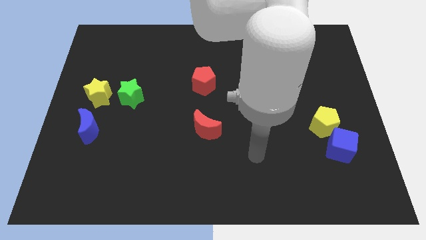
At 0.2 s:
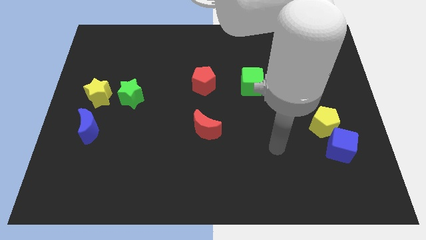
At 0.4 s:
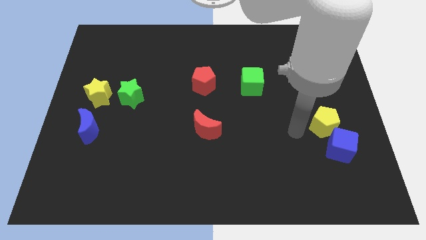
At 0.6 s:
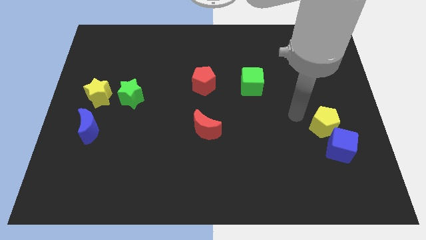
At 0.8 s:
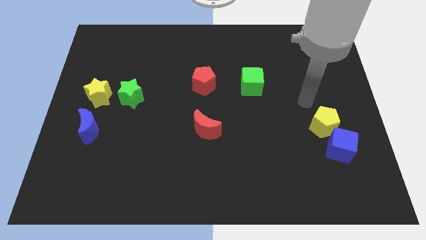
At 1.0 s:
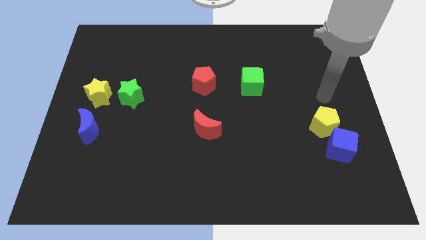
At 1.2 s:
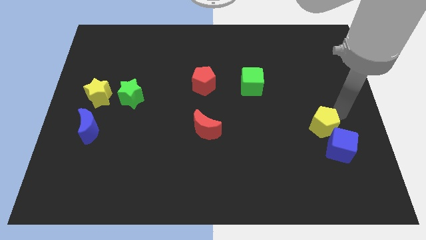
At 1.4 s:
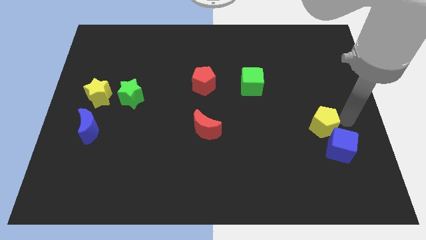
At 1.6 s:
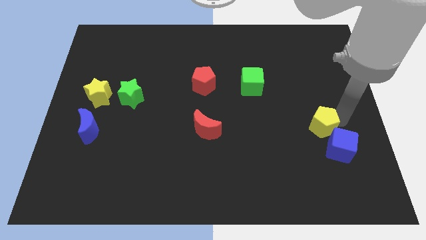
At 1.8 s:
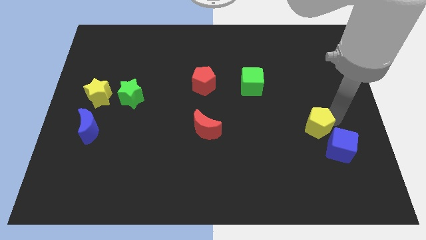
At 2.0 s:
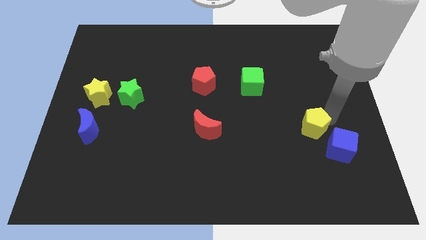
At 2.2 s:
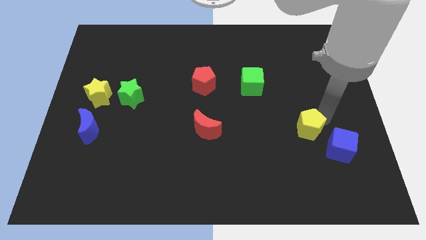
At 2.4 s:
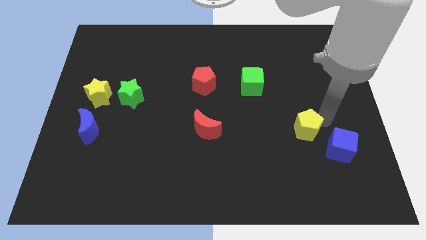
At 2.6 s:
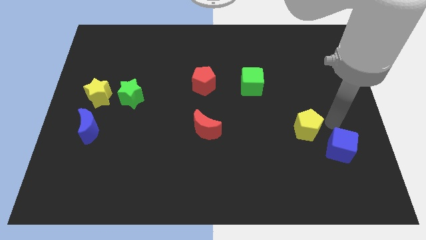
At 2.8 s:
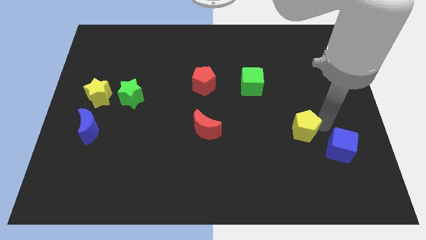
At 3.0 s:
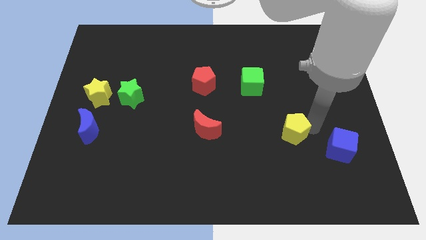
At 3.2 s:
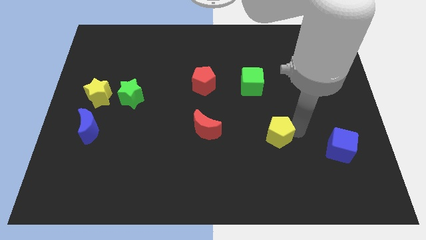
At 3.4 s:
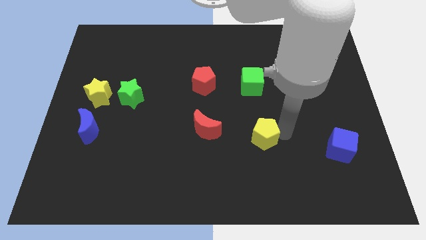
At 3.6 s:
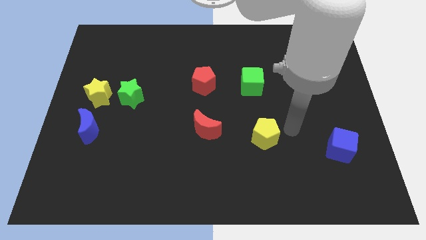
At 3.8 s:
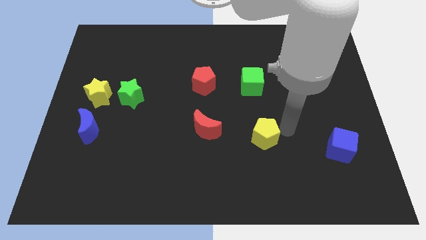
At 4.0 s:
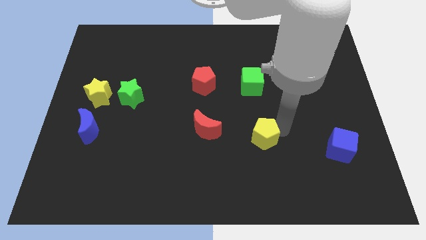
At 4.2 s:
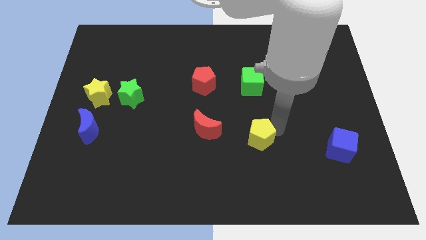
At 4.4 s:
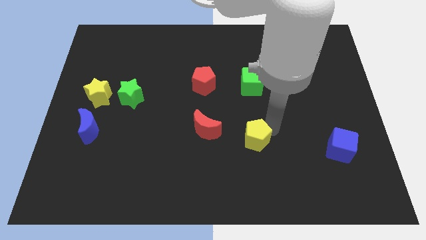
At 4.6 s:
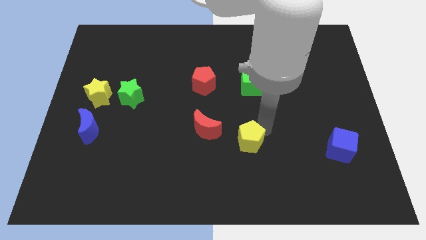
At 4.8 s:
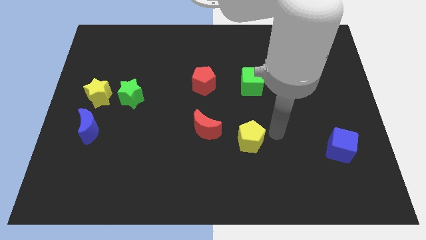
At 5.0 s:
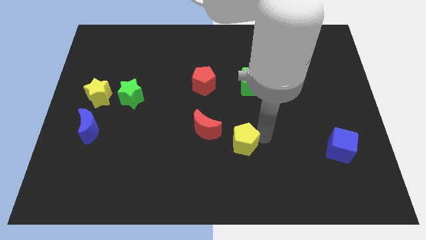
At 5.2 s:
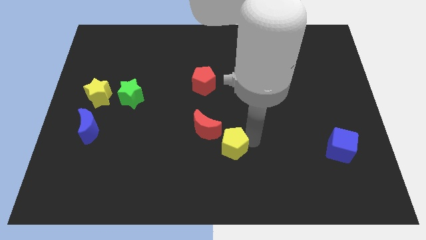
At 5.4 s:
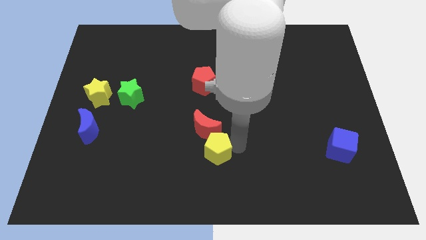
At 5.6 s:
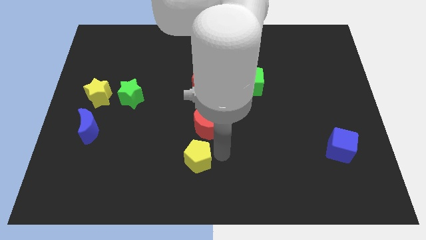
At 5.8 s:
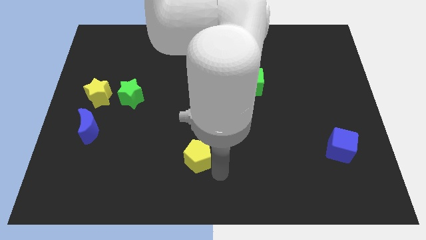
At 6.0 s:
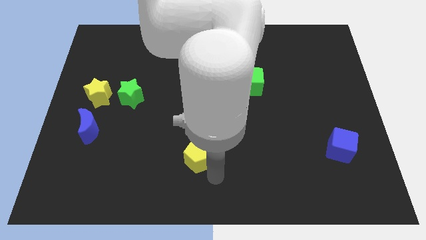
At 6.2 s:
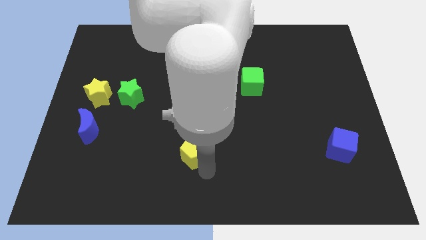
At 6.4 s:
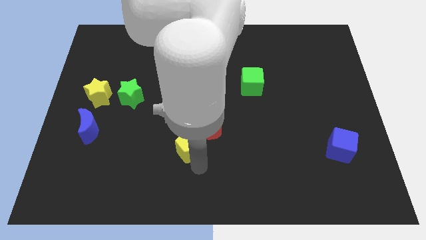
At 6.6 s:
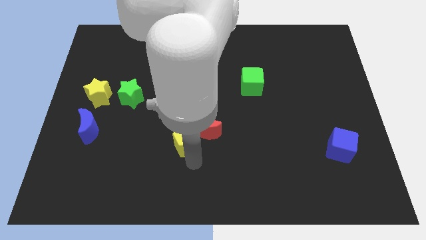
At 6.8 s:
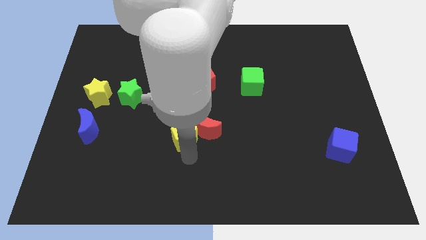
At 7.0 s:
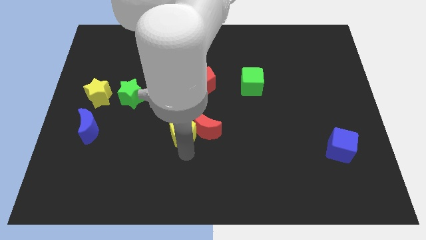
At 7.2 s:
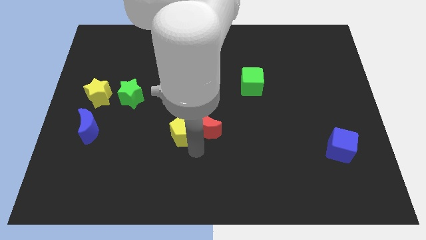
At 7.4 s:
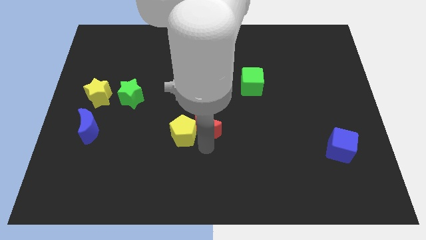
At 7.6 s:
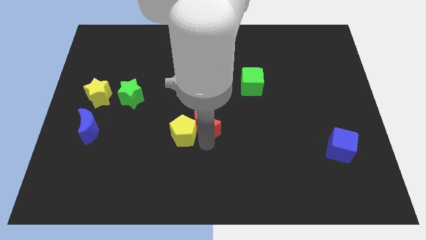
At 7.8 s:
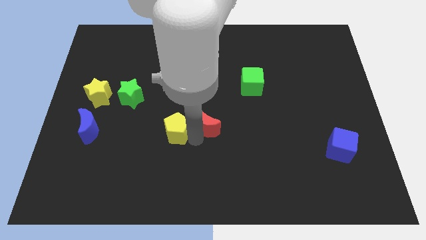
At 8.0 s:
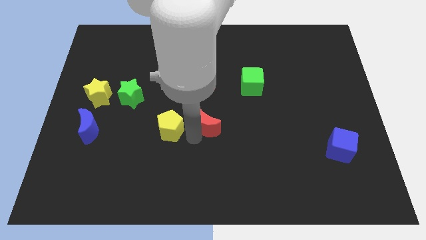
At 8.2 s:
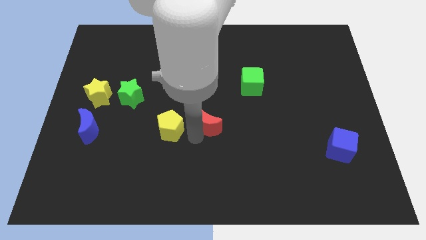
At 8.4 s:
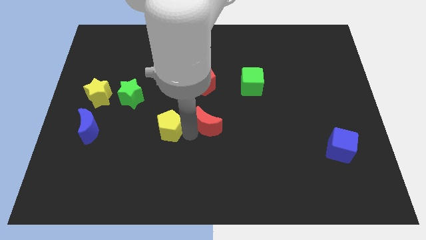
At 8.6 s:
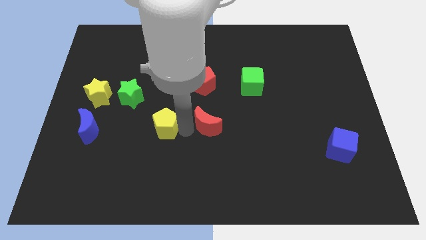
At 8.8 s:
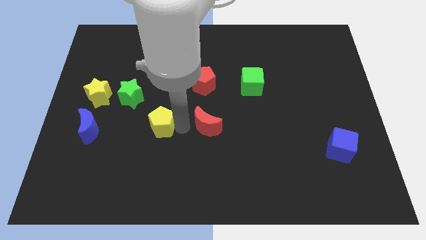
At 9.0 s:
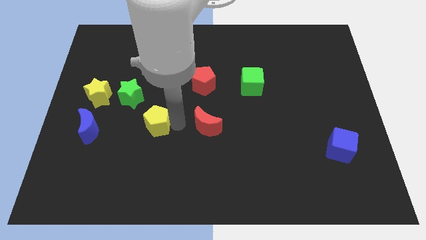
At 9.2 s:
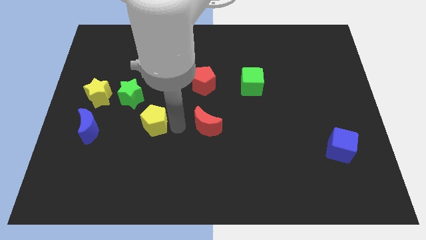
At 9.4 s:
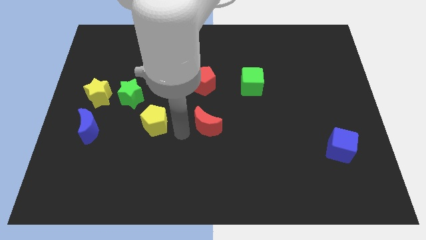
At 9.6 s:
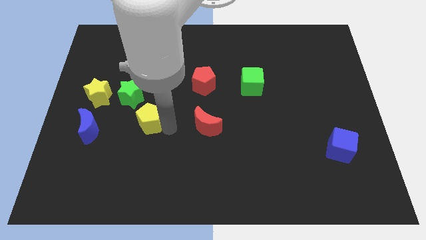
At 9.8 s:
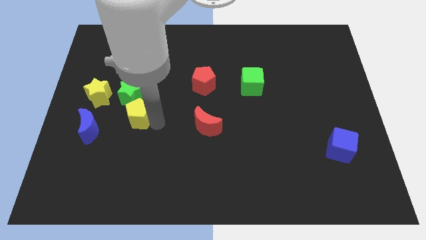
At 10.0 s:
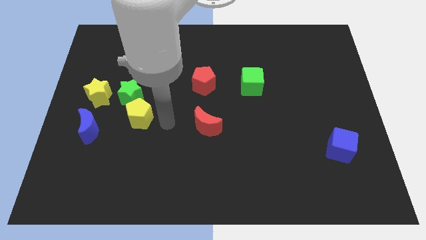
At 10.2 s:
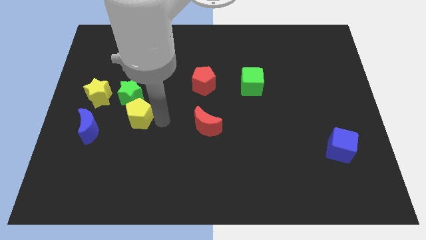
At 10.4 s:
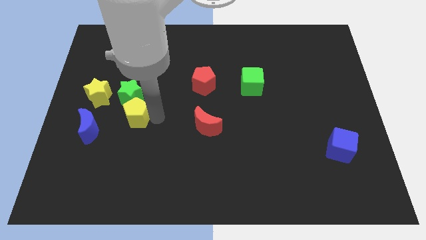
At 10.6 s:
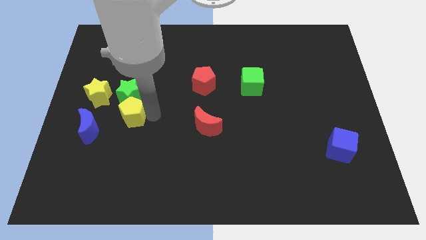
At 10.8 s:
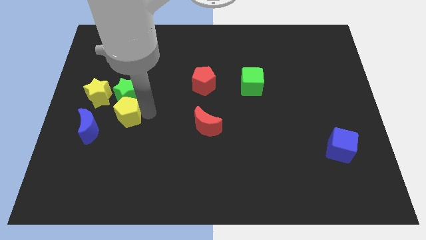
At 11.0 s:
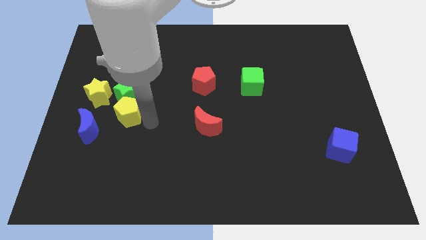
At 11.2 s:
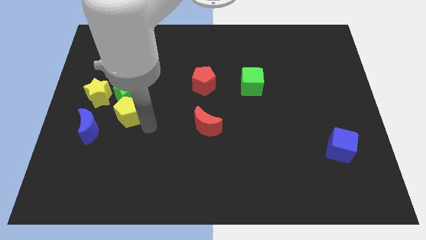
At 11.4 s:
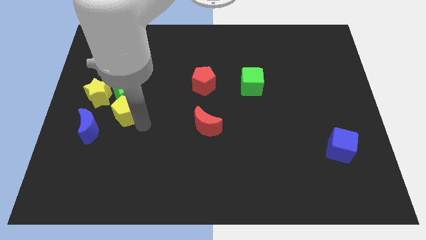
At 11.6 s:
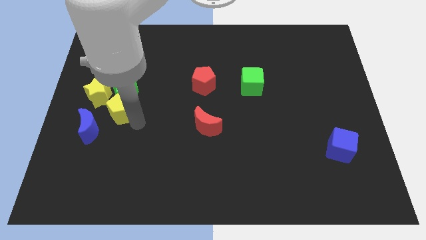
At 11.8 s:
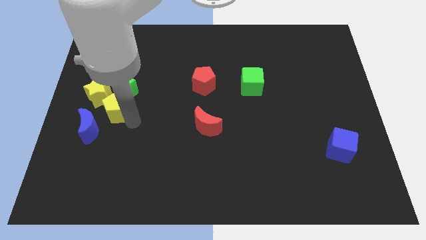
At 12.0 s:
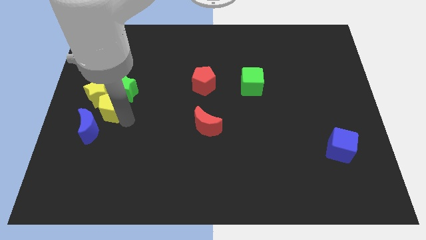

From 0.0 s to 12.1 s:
push the yellow pentagon next to the yellow star

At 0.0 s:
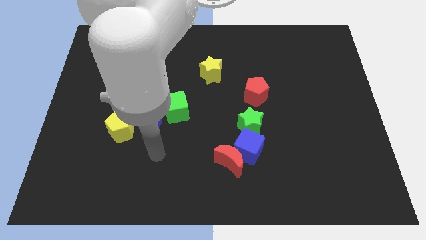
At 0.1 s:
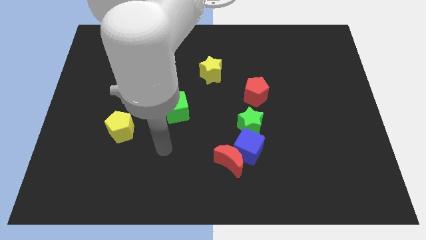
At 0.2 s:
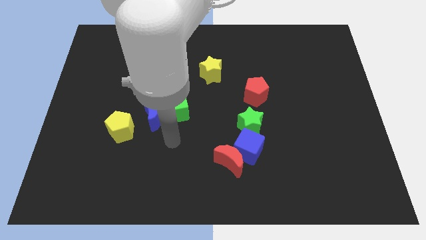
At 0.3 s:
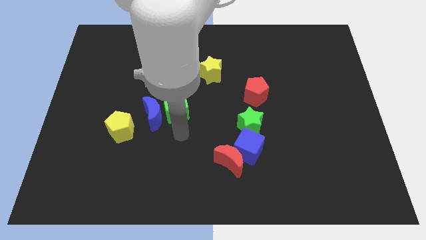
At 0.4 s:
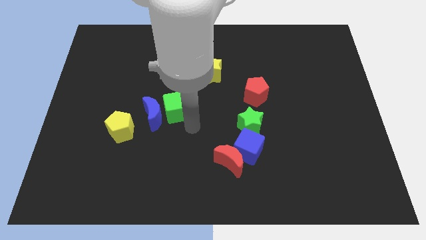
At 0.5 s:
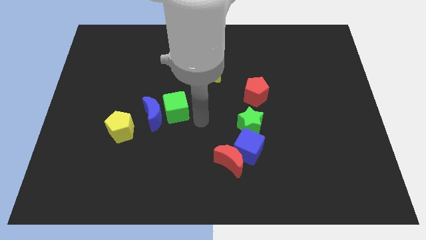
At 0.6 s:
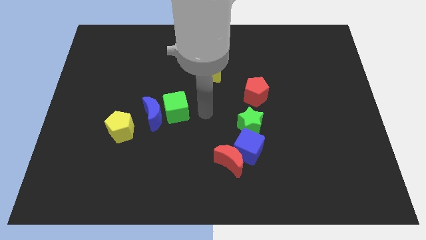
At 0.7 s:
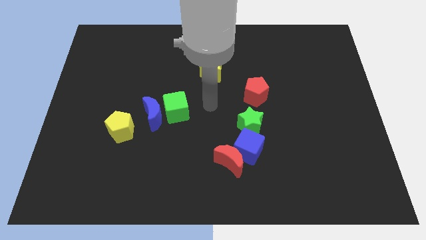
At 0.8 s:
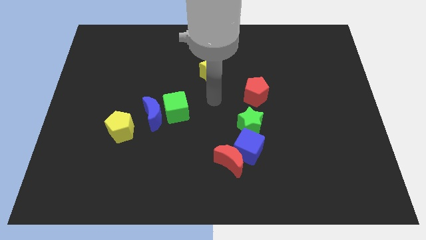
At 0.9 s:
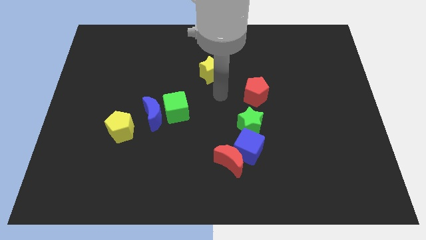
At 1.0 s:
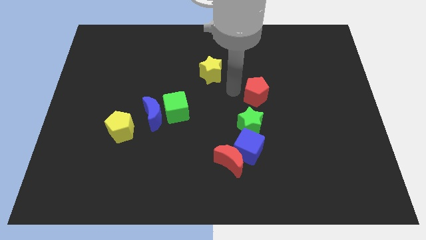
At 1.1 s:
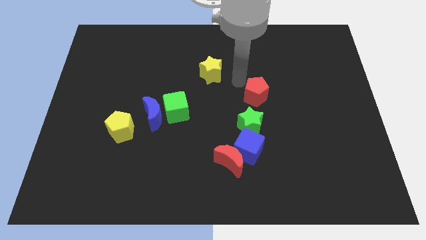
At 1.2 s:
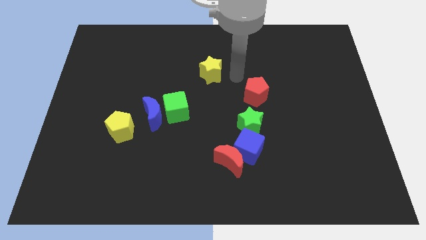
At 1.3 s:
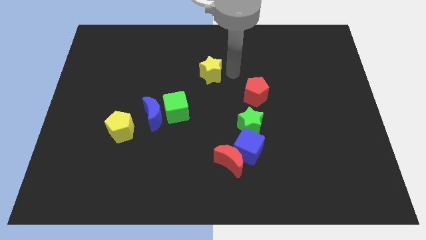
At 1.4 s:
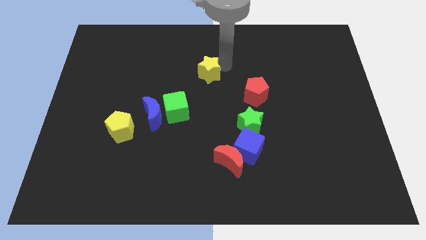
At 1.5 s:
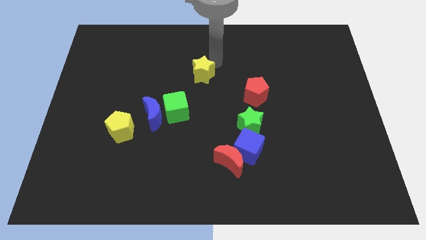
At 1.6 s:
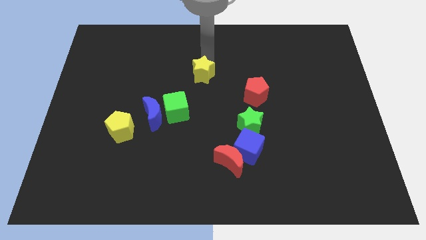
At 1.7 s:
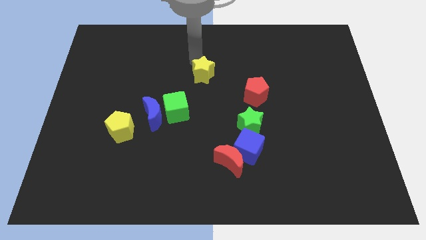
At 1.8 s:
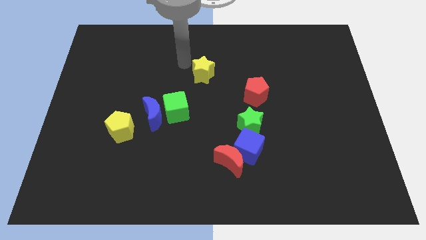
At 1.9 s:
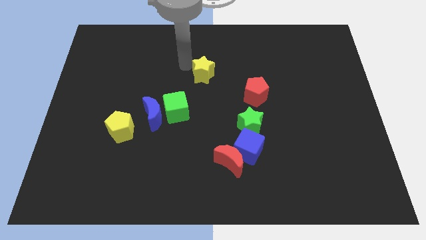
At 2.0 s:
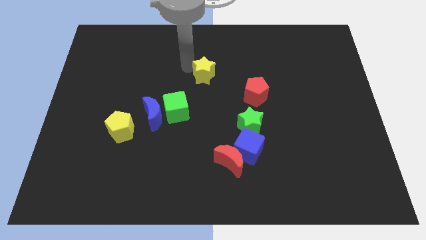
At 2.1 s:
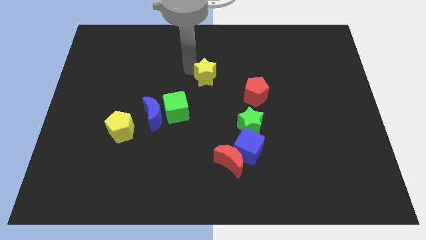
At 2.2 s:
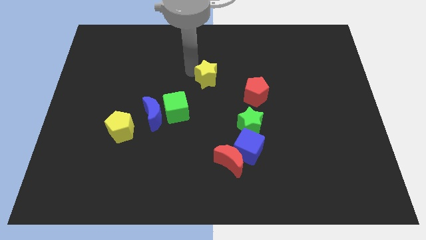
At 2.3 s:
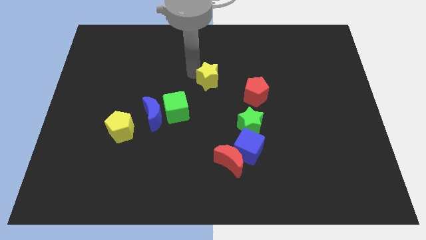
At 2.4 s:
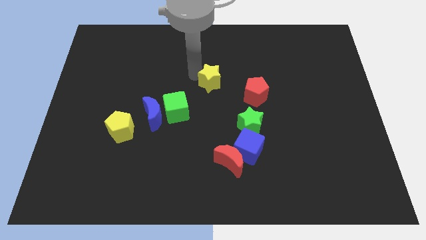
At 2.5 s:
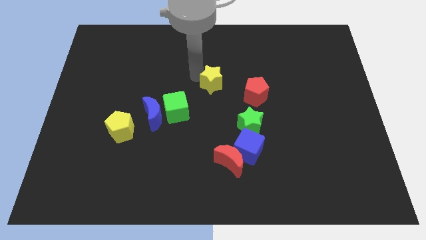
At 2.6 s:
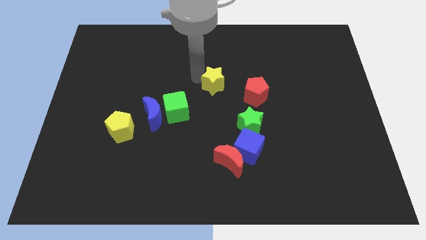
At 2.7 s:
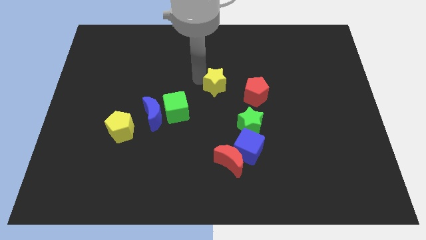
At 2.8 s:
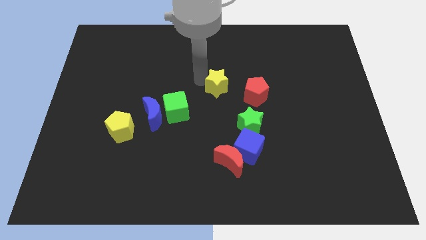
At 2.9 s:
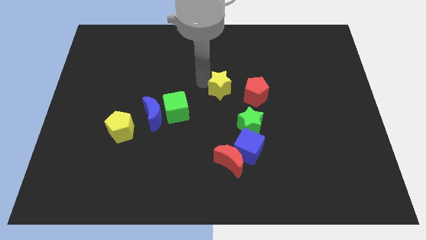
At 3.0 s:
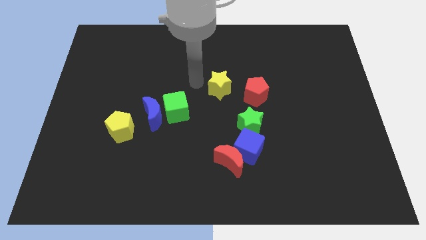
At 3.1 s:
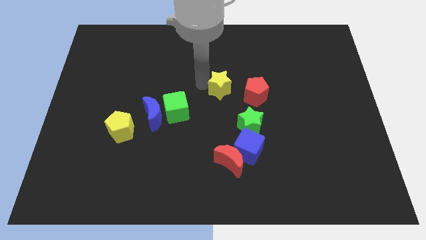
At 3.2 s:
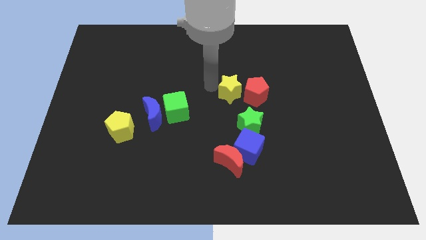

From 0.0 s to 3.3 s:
push the yellow star close to the red pentagon
